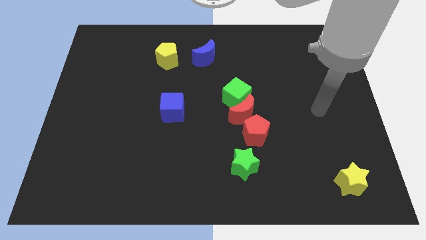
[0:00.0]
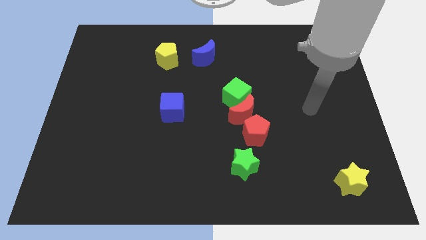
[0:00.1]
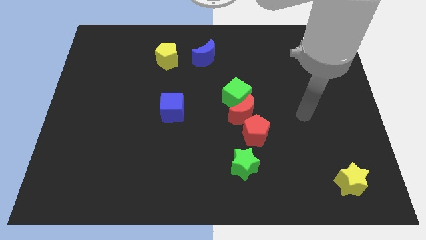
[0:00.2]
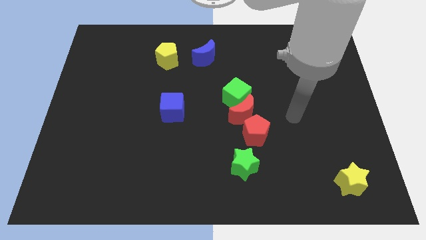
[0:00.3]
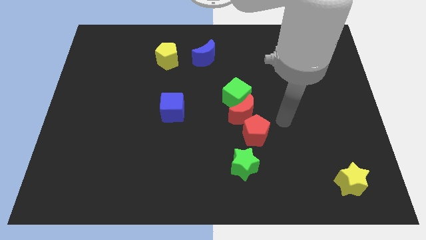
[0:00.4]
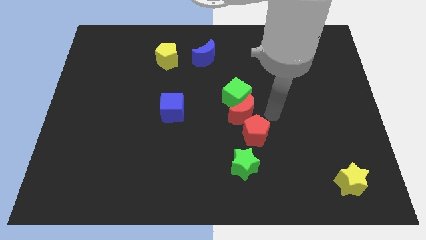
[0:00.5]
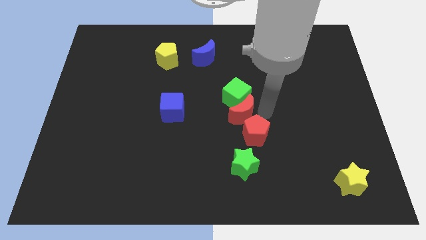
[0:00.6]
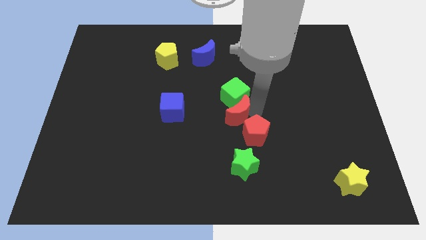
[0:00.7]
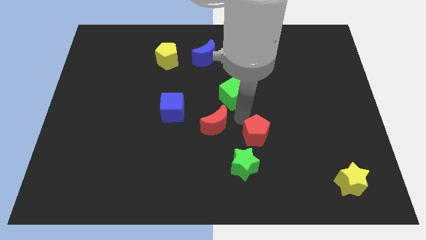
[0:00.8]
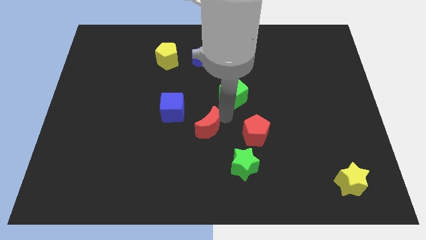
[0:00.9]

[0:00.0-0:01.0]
pull the green cube apart from the red moon

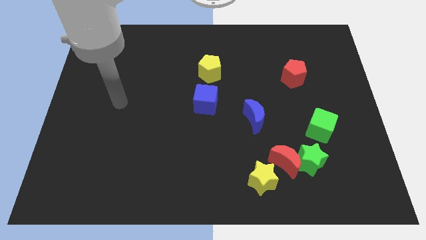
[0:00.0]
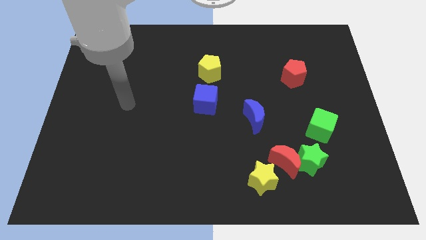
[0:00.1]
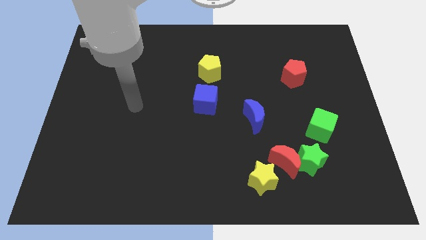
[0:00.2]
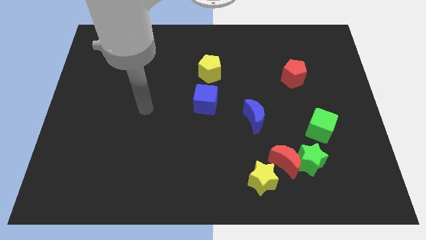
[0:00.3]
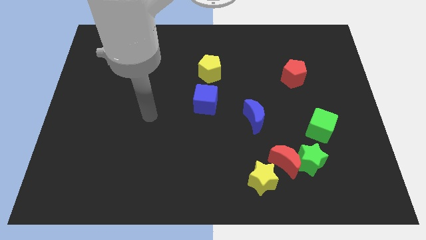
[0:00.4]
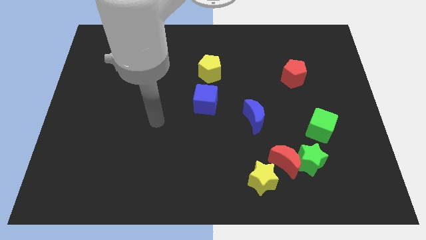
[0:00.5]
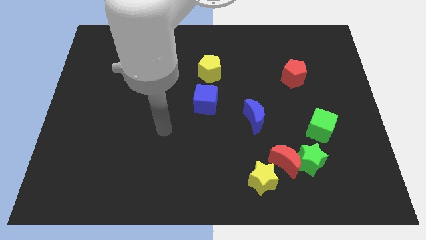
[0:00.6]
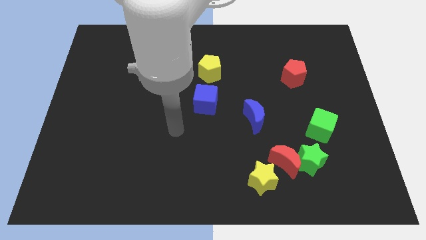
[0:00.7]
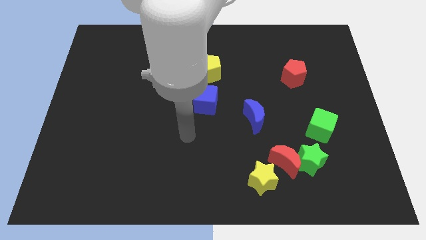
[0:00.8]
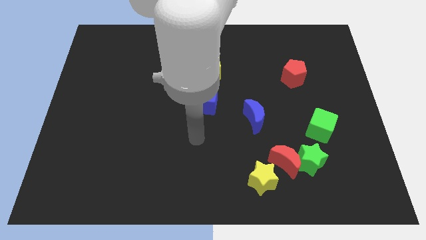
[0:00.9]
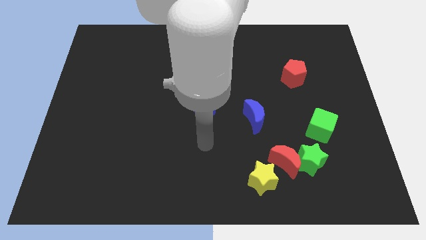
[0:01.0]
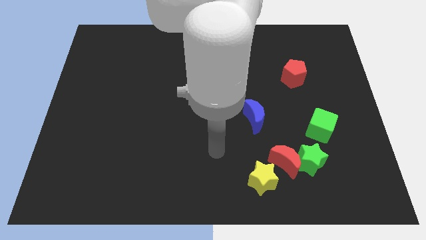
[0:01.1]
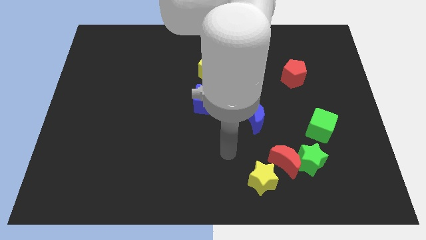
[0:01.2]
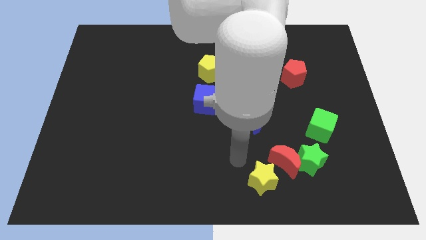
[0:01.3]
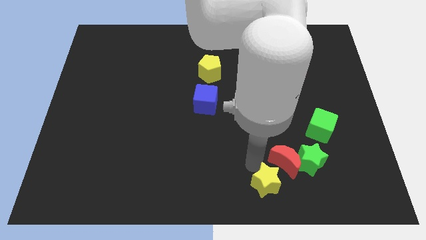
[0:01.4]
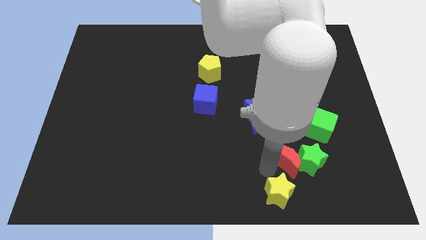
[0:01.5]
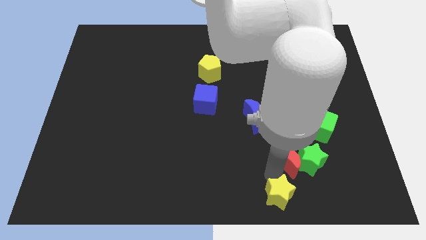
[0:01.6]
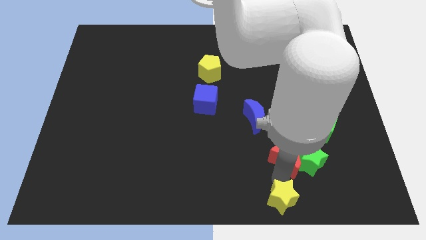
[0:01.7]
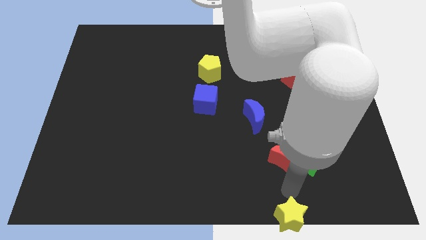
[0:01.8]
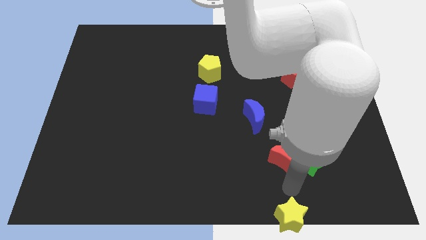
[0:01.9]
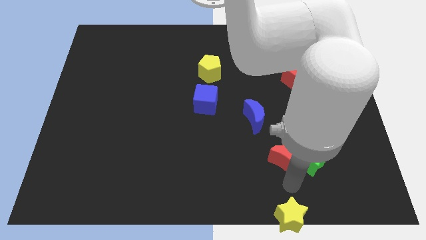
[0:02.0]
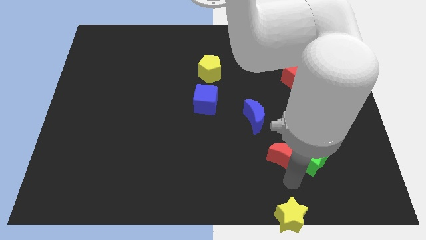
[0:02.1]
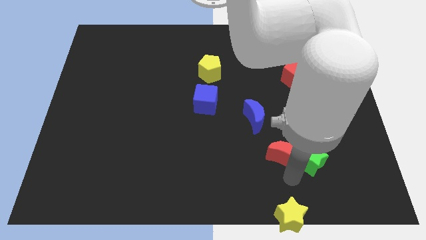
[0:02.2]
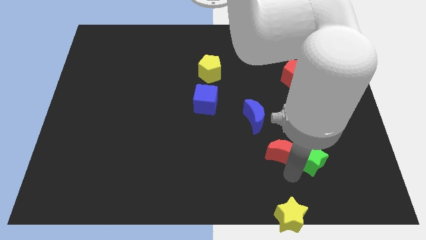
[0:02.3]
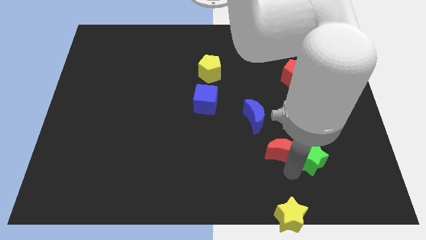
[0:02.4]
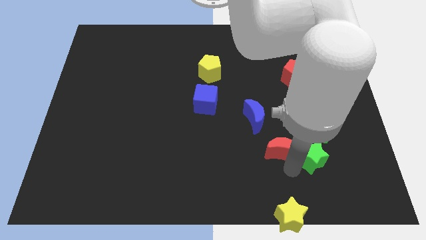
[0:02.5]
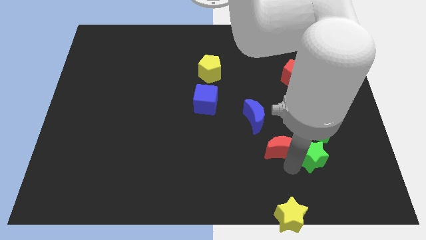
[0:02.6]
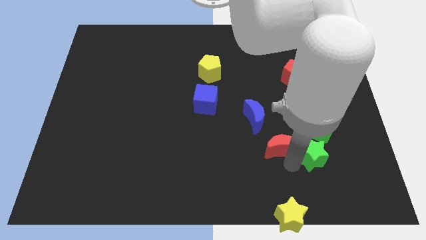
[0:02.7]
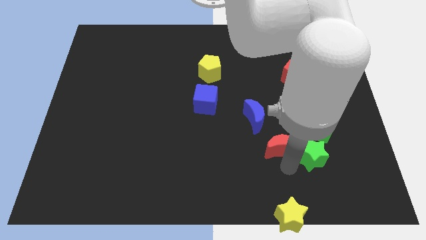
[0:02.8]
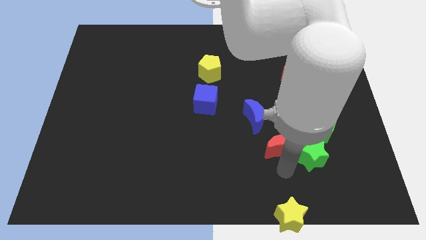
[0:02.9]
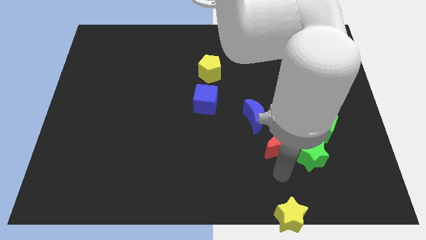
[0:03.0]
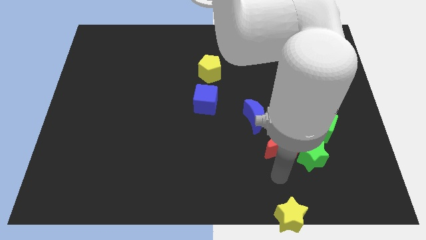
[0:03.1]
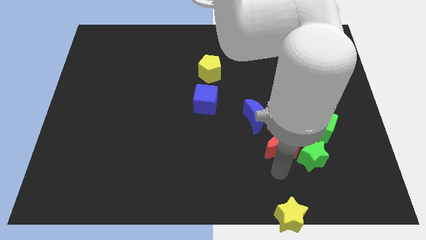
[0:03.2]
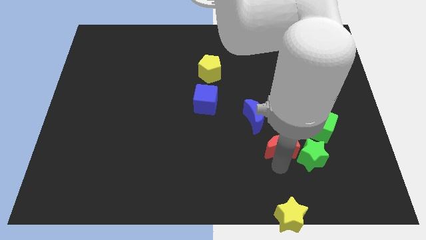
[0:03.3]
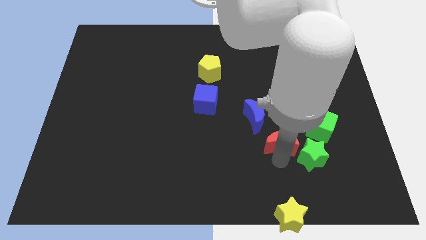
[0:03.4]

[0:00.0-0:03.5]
move the red moon away from the green star and yellow star

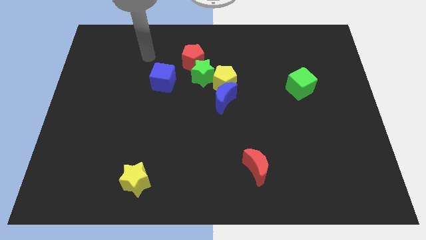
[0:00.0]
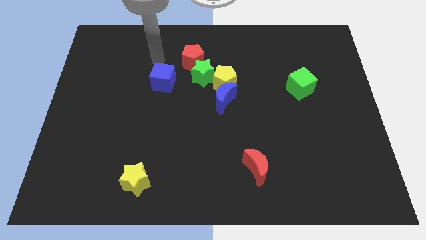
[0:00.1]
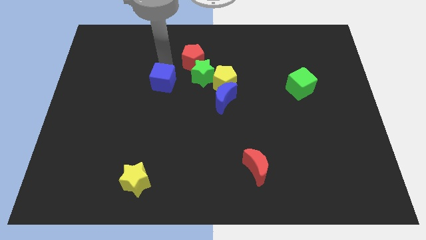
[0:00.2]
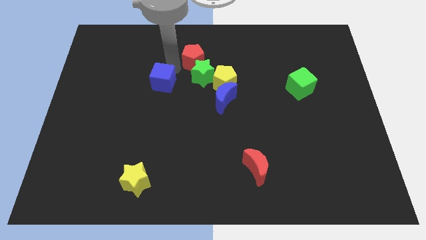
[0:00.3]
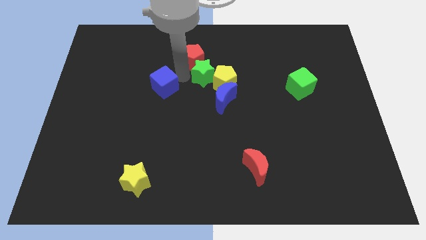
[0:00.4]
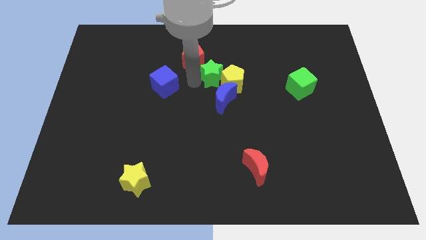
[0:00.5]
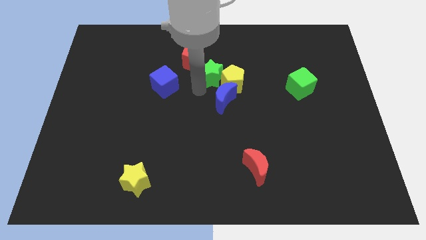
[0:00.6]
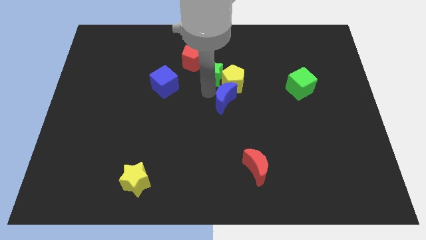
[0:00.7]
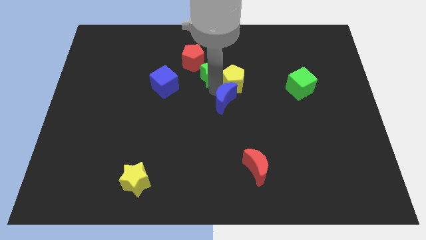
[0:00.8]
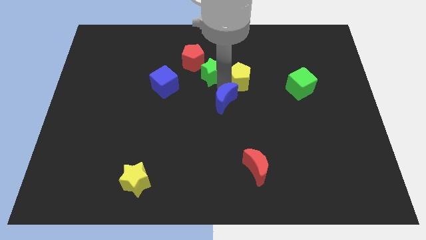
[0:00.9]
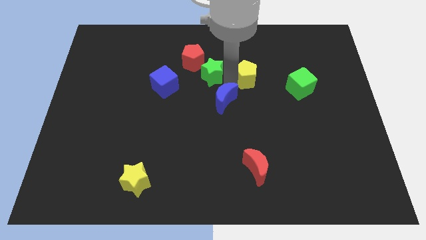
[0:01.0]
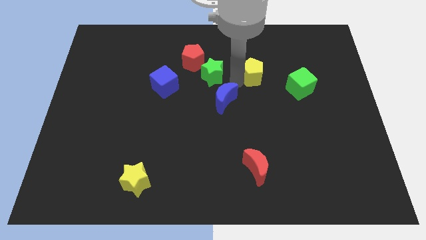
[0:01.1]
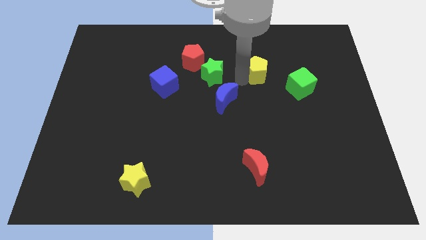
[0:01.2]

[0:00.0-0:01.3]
separate the yellow pentagon from the blue moon and green star

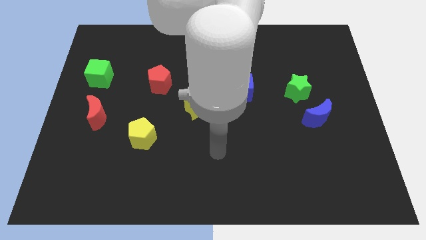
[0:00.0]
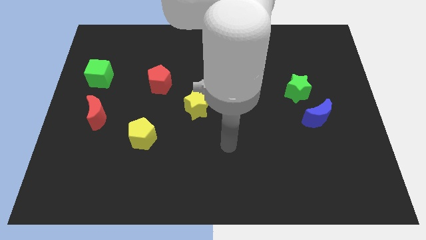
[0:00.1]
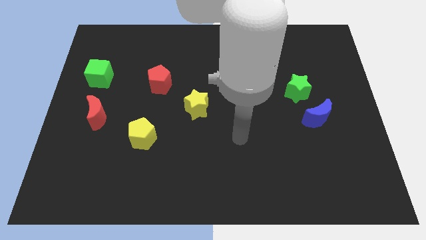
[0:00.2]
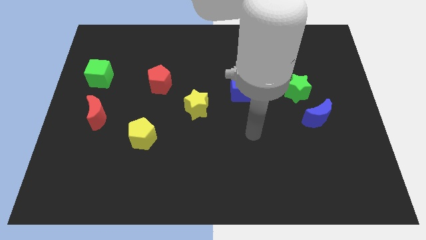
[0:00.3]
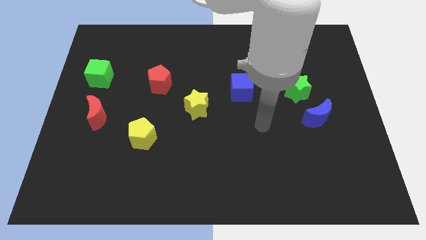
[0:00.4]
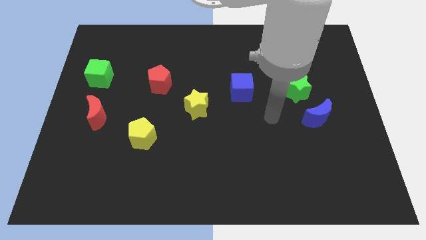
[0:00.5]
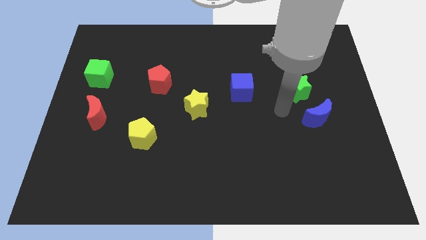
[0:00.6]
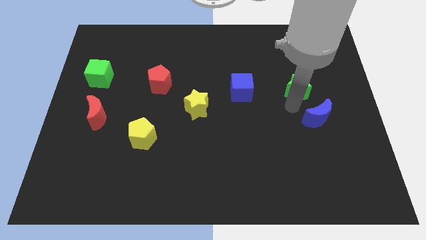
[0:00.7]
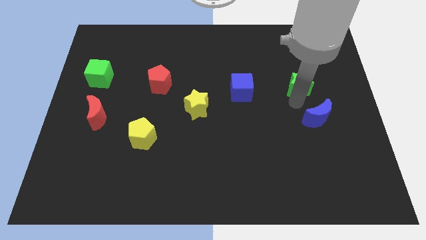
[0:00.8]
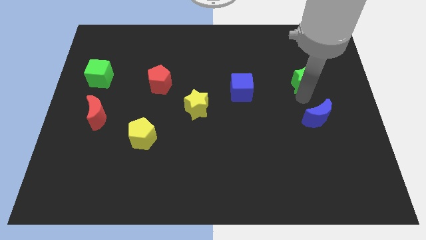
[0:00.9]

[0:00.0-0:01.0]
move the blue moon away from the green star

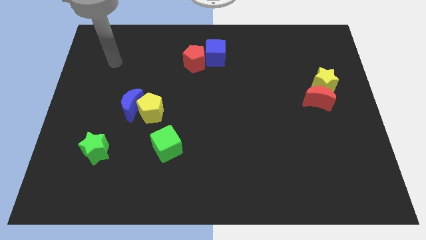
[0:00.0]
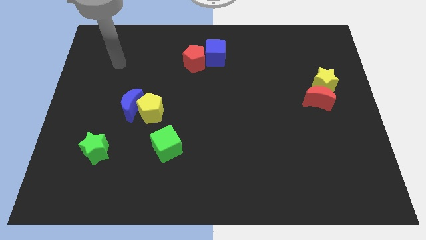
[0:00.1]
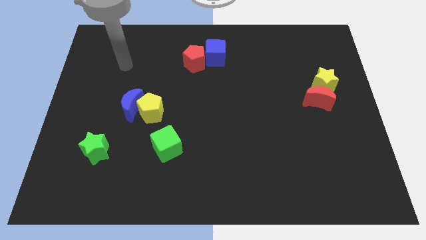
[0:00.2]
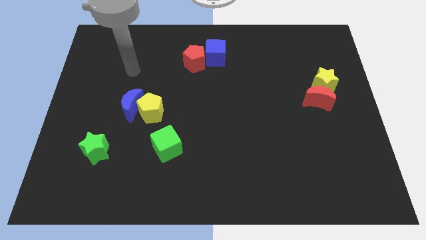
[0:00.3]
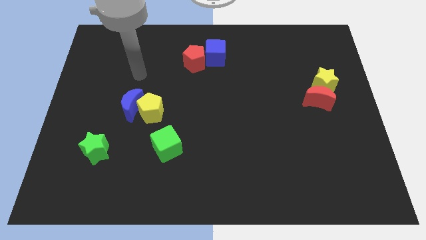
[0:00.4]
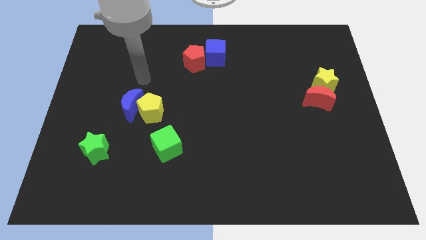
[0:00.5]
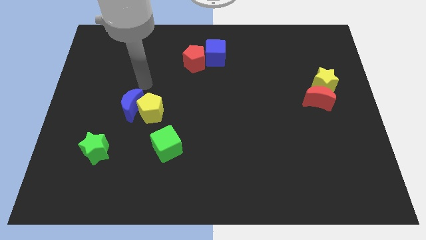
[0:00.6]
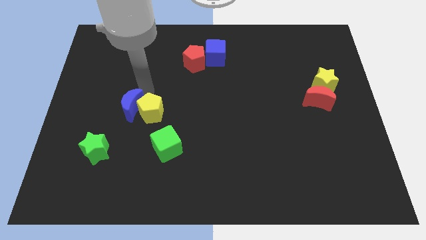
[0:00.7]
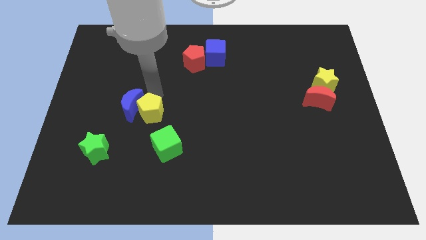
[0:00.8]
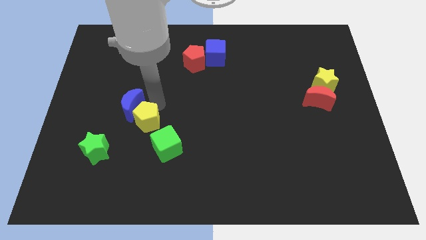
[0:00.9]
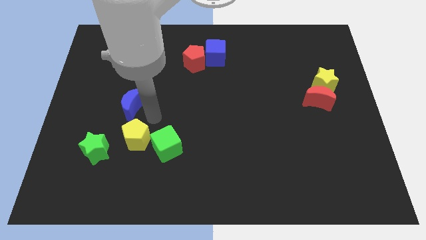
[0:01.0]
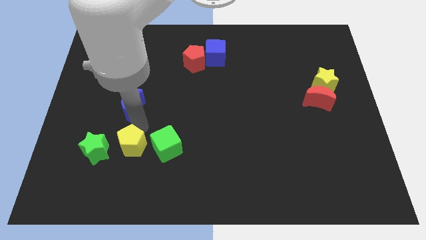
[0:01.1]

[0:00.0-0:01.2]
move the blue moon away from the yellow pentagon

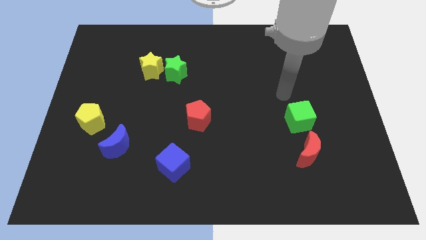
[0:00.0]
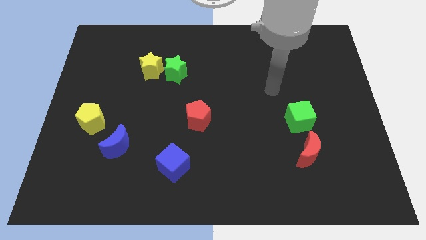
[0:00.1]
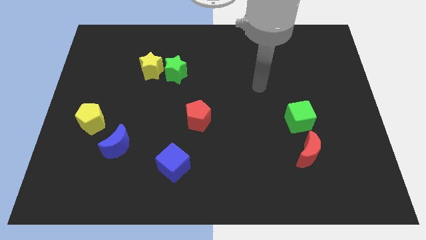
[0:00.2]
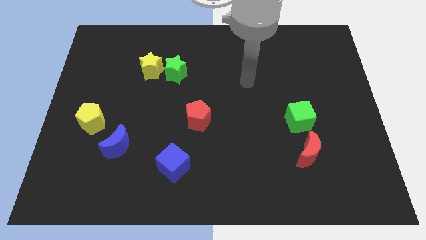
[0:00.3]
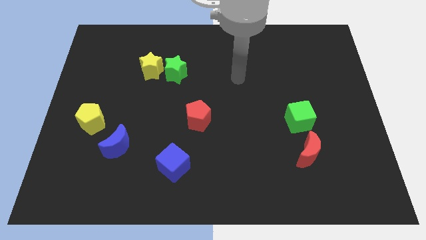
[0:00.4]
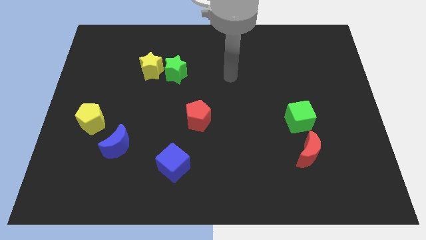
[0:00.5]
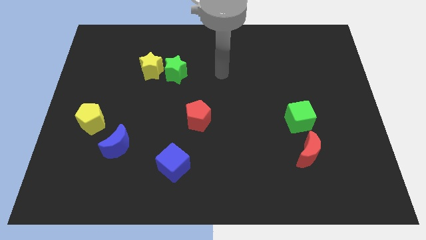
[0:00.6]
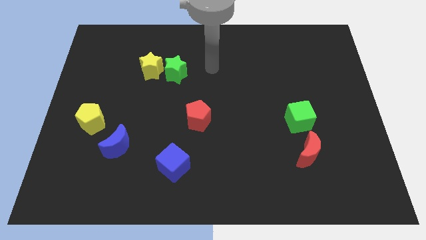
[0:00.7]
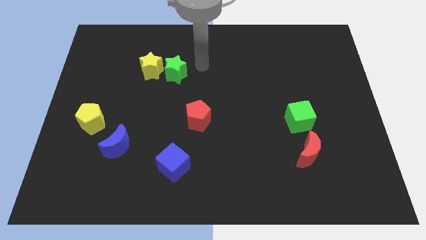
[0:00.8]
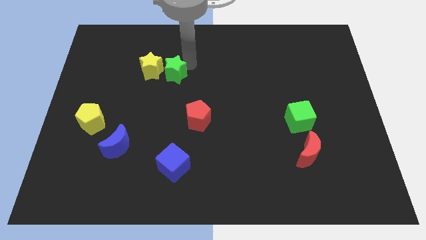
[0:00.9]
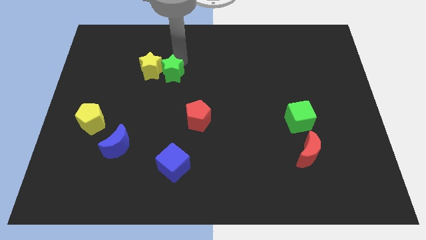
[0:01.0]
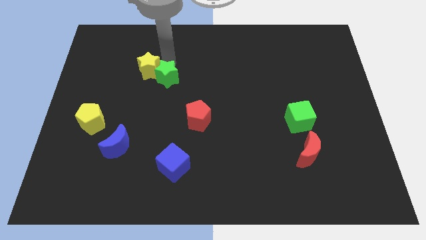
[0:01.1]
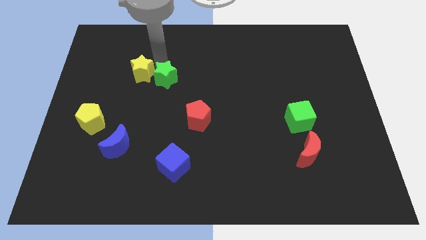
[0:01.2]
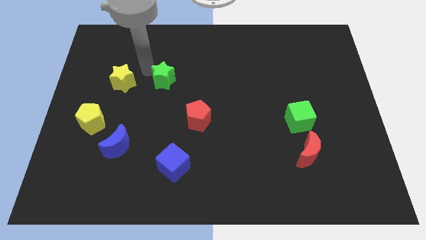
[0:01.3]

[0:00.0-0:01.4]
move the green star away from the yellow star
